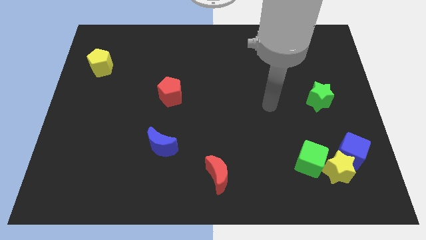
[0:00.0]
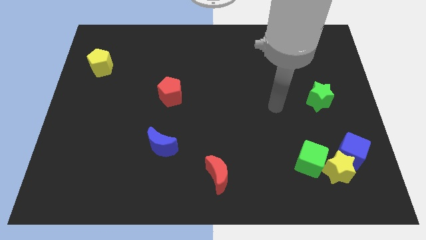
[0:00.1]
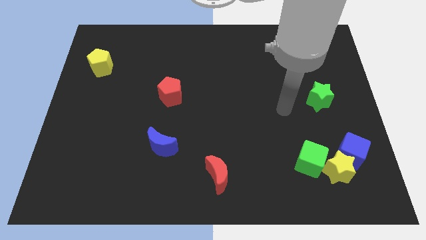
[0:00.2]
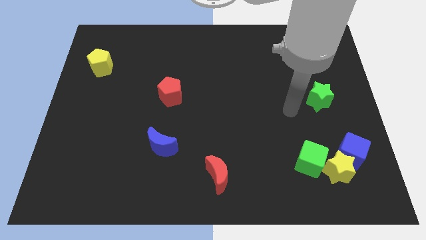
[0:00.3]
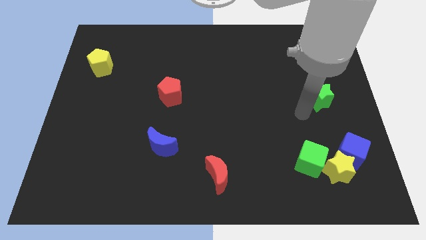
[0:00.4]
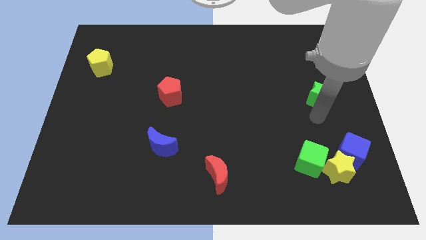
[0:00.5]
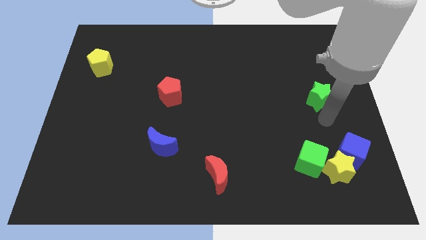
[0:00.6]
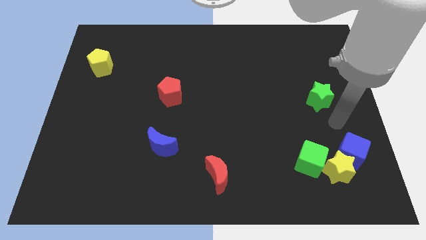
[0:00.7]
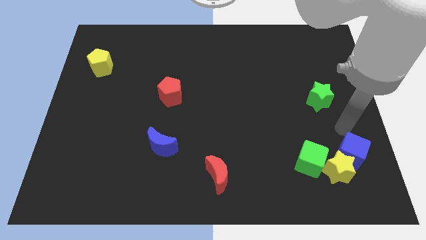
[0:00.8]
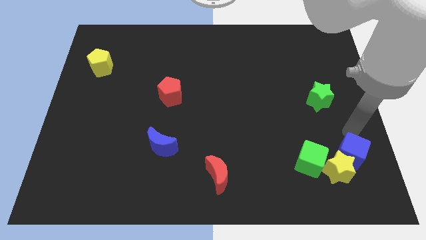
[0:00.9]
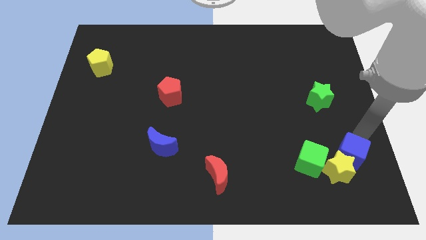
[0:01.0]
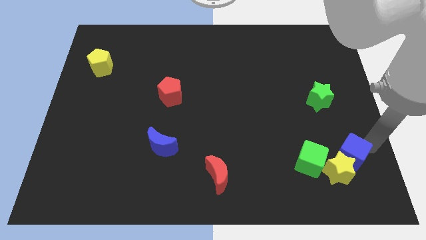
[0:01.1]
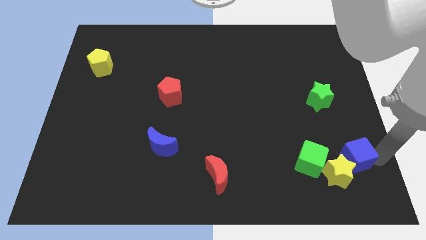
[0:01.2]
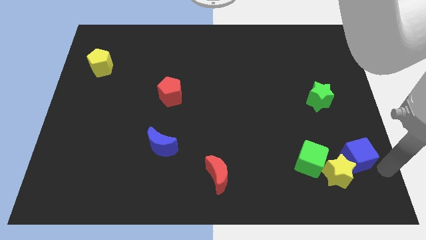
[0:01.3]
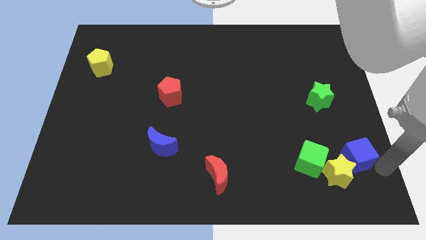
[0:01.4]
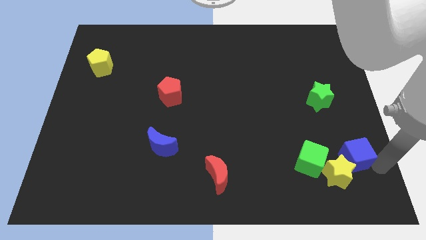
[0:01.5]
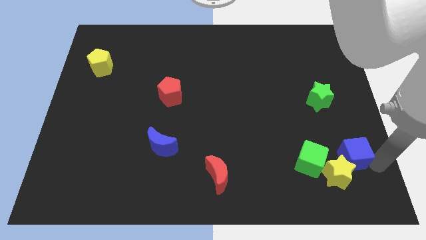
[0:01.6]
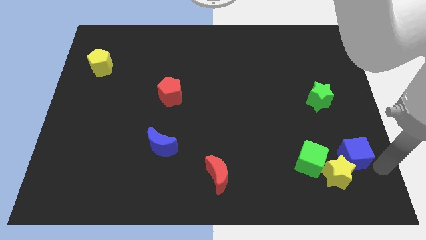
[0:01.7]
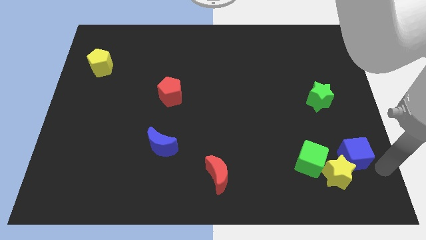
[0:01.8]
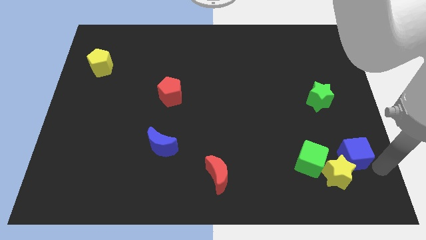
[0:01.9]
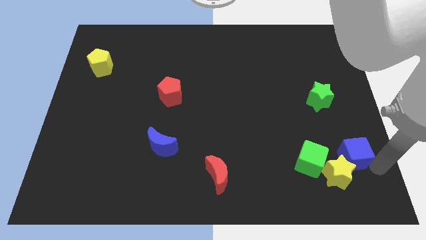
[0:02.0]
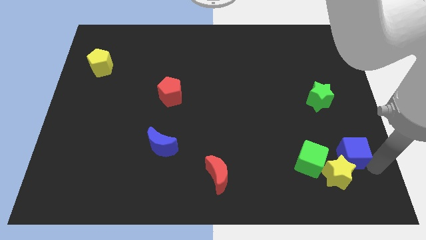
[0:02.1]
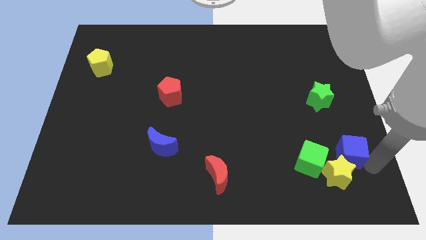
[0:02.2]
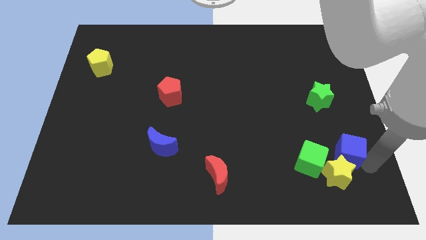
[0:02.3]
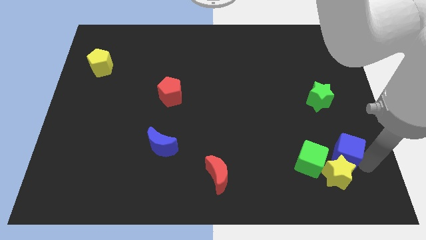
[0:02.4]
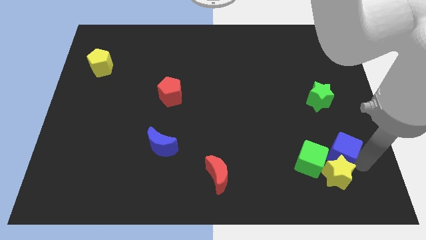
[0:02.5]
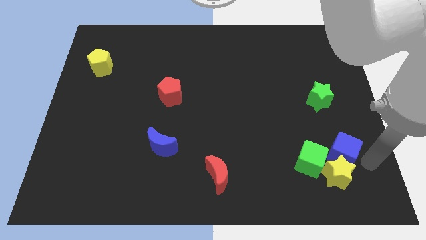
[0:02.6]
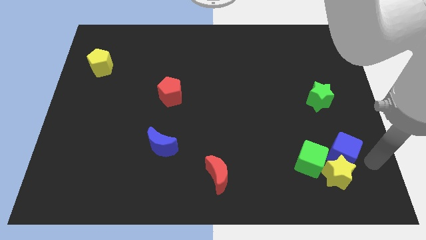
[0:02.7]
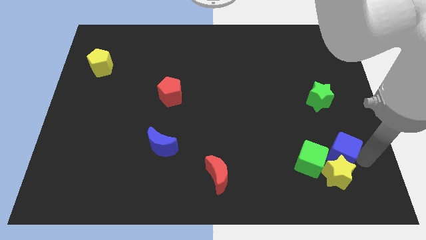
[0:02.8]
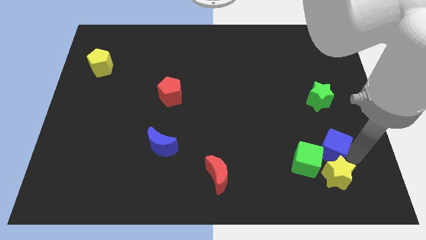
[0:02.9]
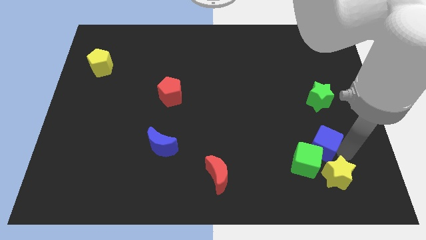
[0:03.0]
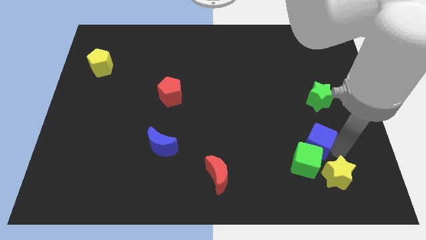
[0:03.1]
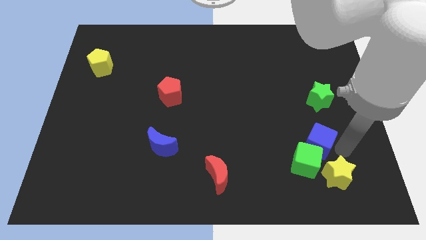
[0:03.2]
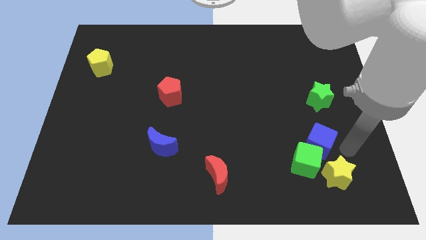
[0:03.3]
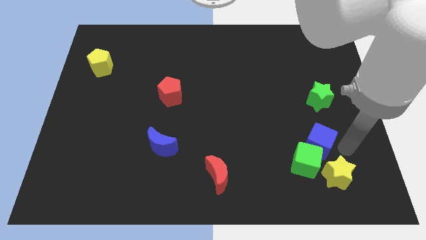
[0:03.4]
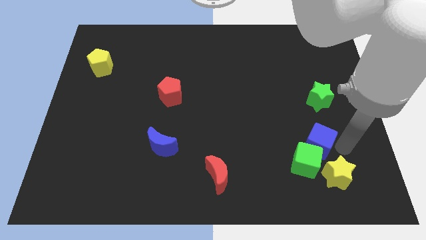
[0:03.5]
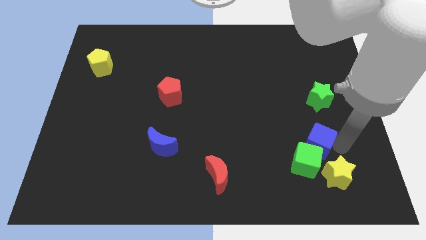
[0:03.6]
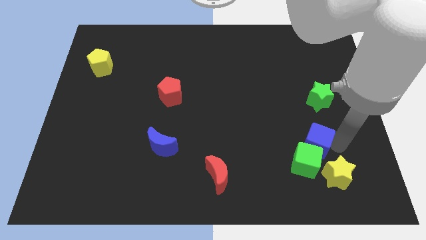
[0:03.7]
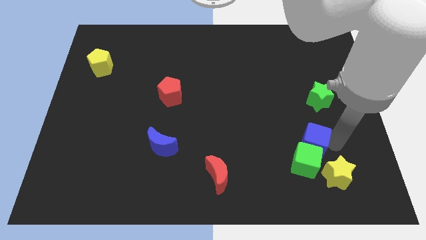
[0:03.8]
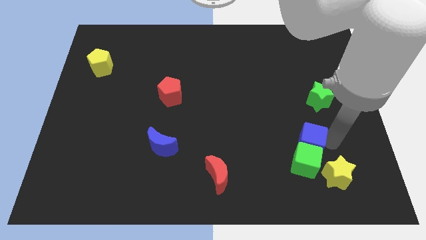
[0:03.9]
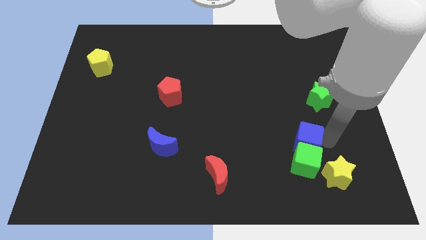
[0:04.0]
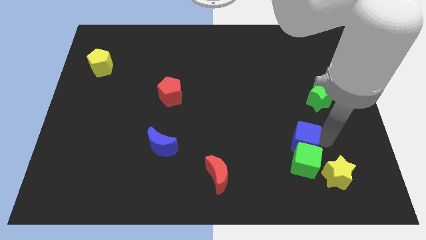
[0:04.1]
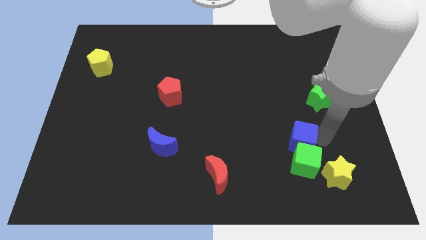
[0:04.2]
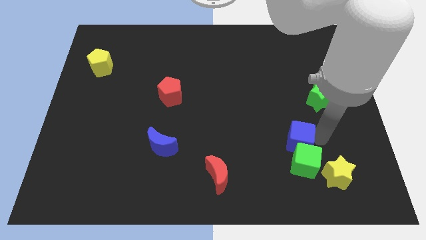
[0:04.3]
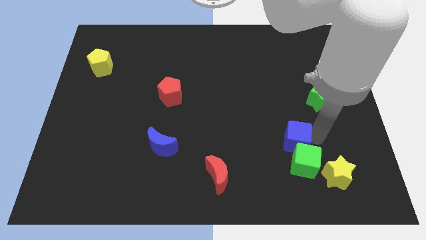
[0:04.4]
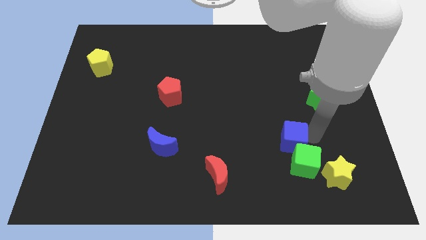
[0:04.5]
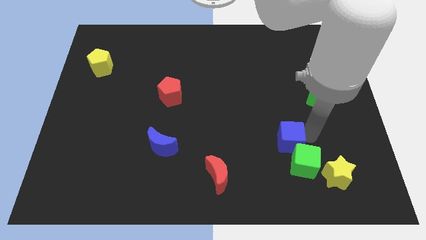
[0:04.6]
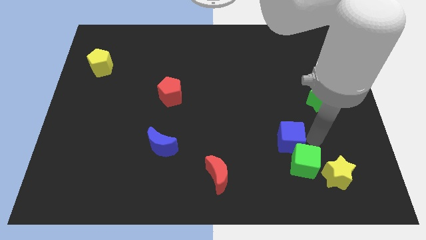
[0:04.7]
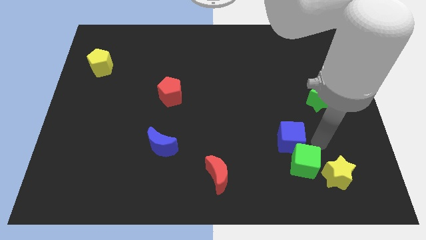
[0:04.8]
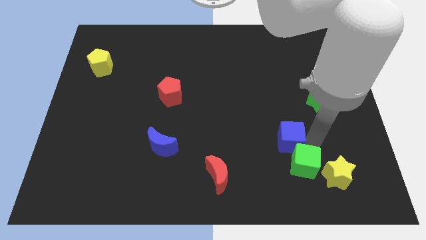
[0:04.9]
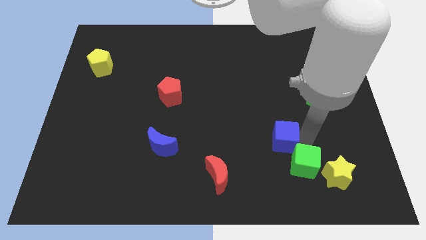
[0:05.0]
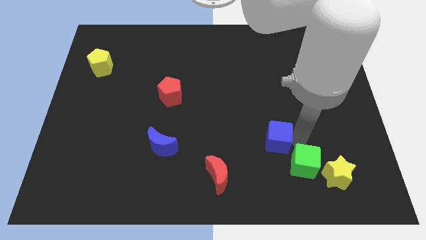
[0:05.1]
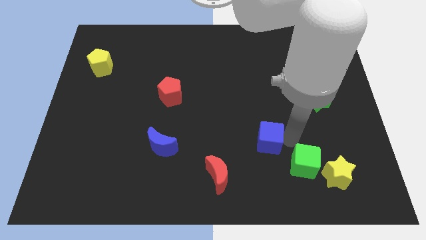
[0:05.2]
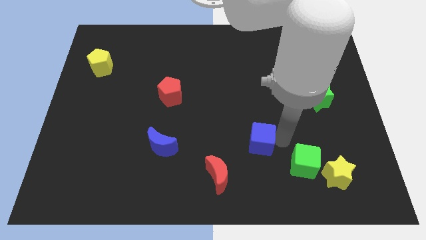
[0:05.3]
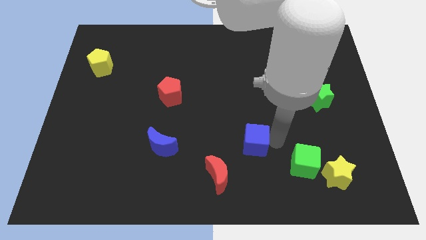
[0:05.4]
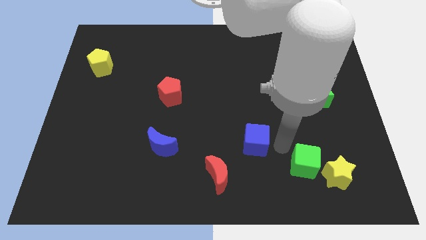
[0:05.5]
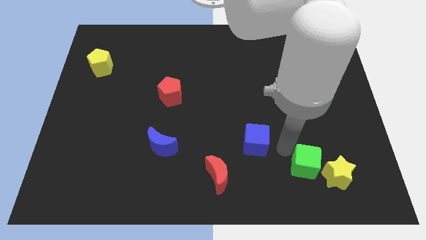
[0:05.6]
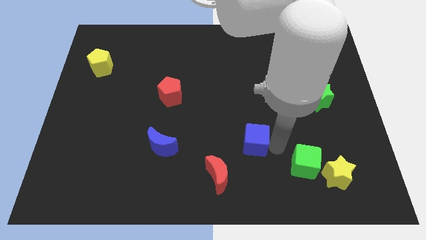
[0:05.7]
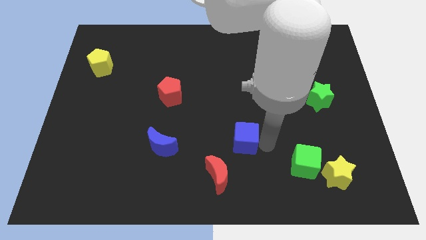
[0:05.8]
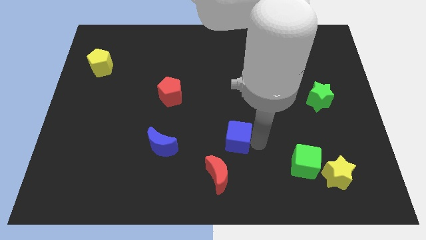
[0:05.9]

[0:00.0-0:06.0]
put the blue cube to the top side of the red moon
